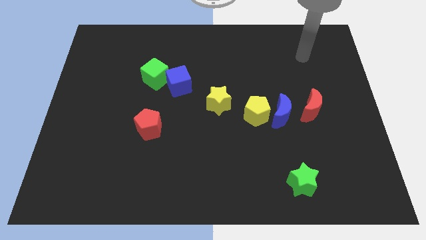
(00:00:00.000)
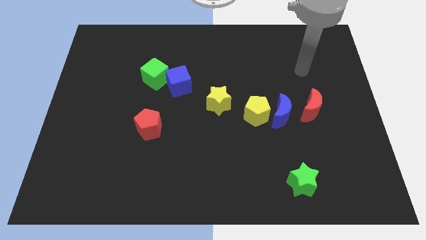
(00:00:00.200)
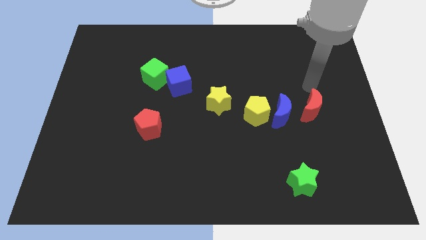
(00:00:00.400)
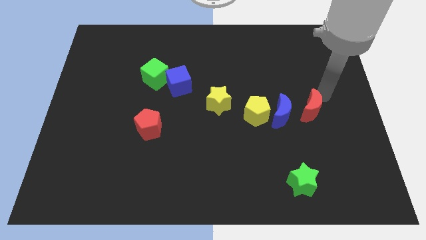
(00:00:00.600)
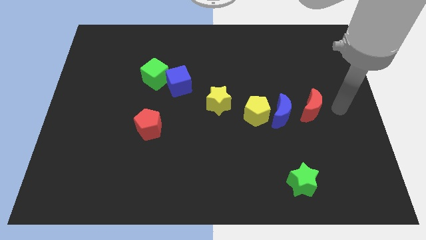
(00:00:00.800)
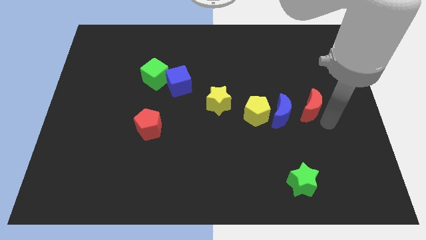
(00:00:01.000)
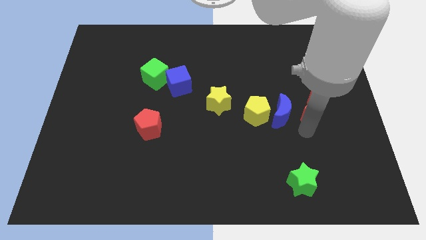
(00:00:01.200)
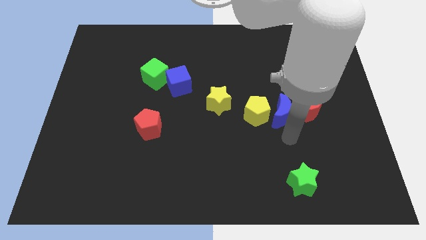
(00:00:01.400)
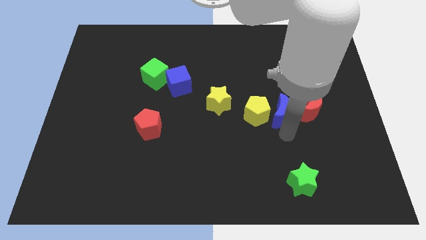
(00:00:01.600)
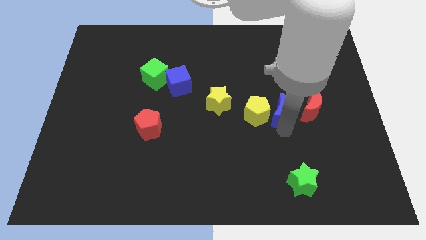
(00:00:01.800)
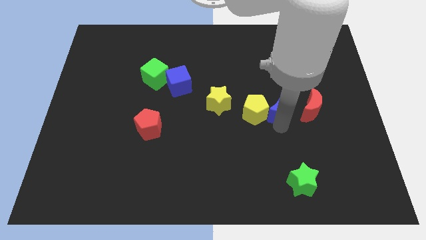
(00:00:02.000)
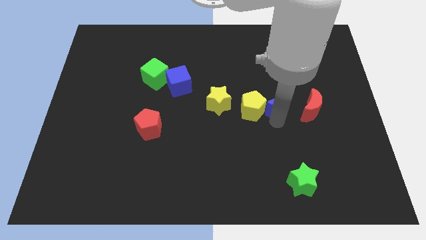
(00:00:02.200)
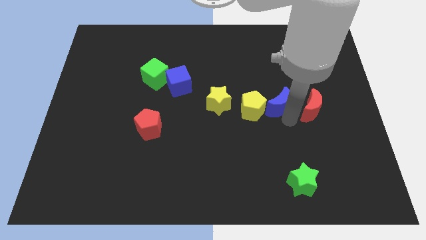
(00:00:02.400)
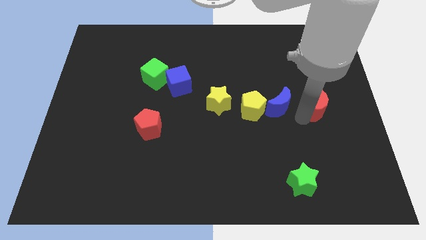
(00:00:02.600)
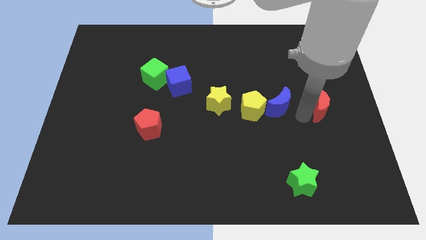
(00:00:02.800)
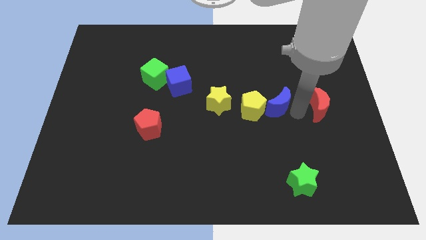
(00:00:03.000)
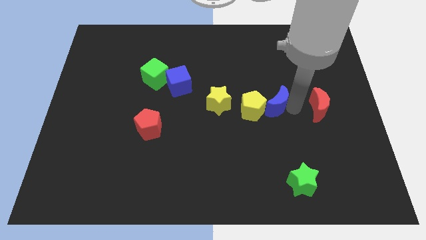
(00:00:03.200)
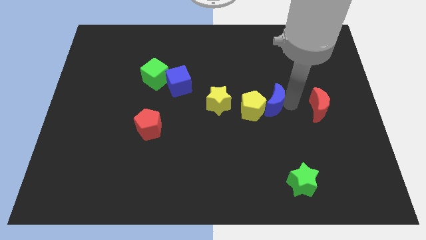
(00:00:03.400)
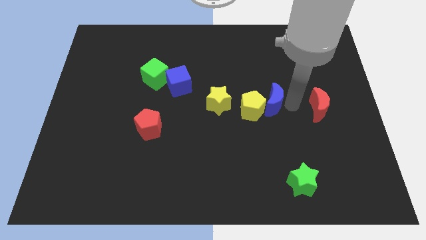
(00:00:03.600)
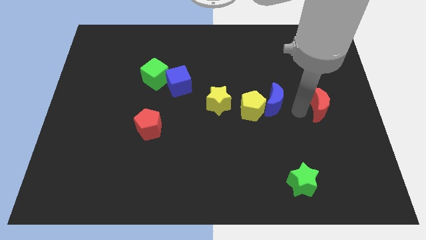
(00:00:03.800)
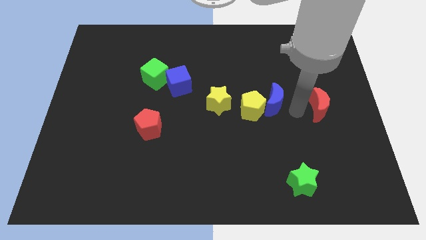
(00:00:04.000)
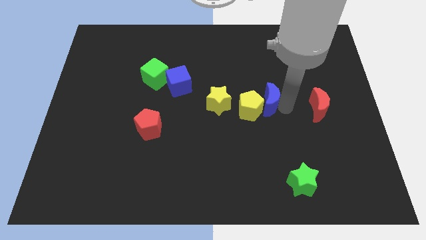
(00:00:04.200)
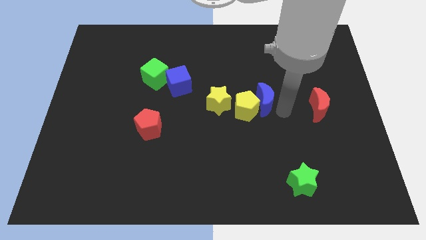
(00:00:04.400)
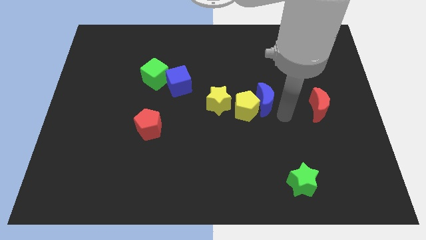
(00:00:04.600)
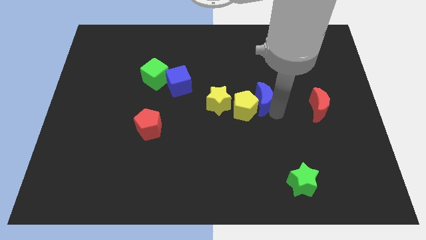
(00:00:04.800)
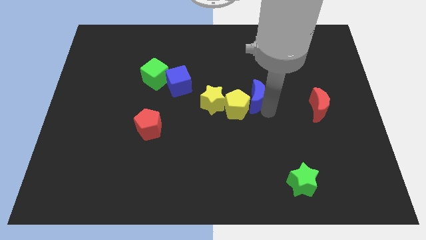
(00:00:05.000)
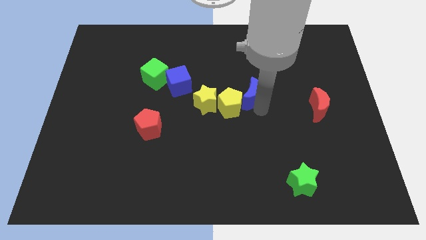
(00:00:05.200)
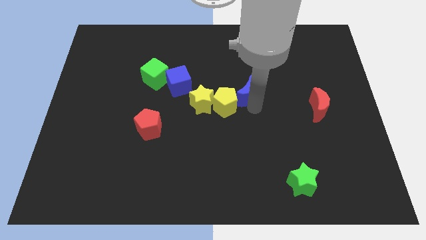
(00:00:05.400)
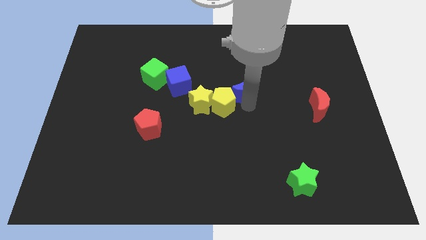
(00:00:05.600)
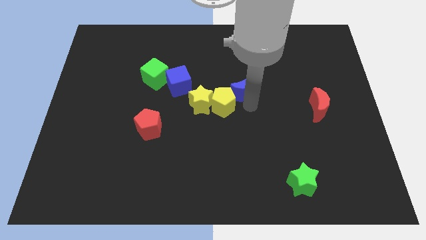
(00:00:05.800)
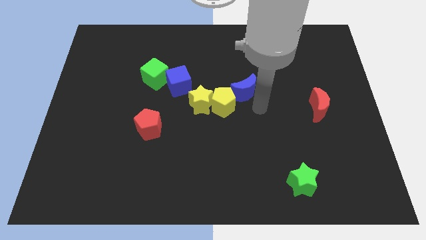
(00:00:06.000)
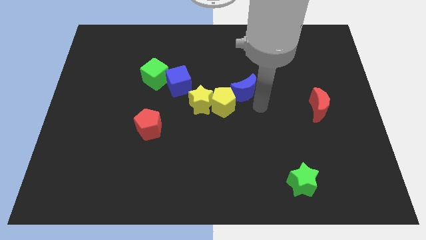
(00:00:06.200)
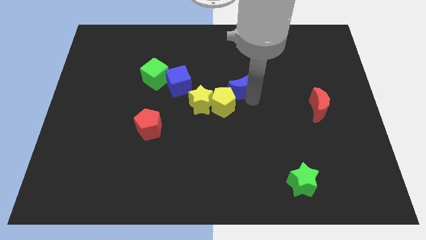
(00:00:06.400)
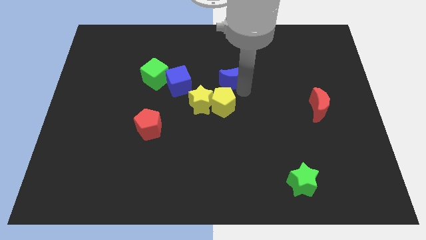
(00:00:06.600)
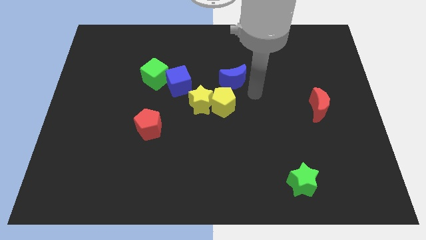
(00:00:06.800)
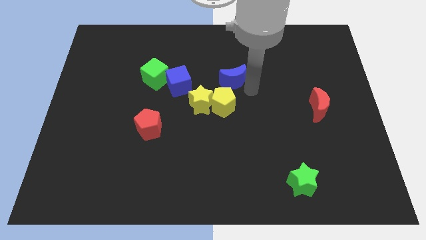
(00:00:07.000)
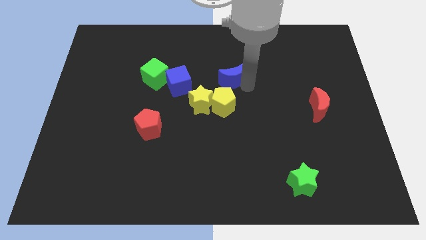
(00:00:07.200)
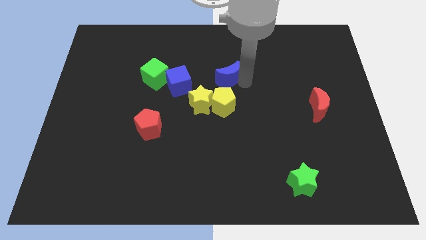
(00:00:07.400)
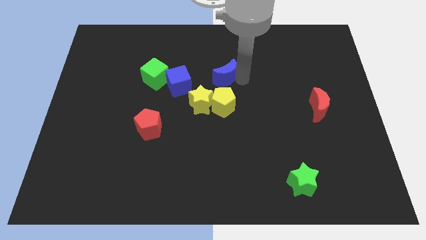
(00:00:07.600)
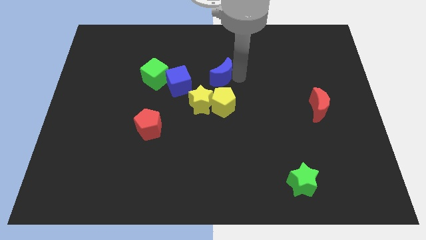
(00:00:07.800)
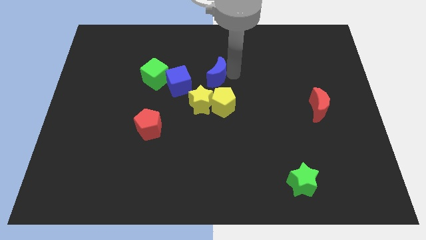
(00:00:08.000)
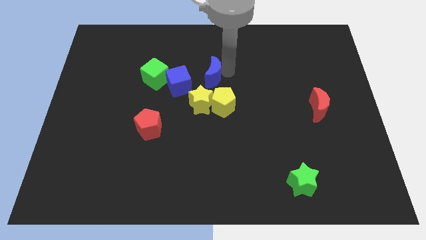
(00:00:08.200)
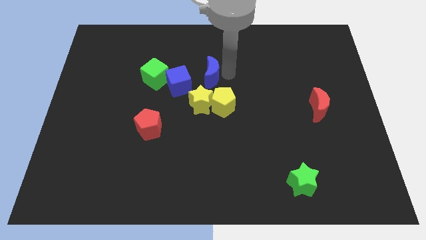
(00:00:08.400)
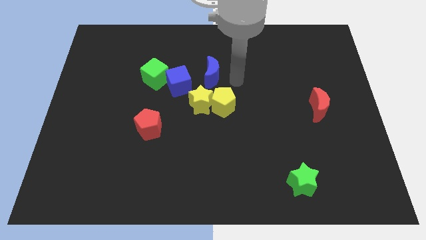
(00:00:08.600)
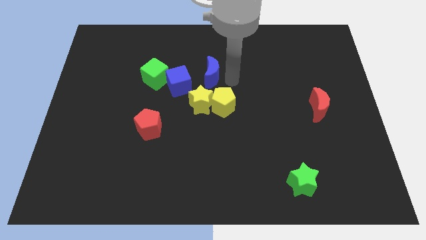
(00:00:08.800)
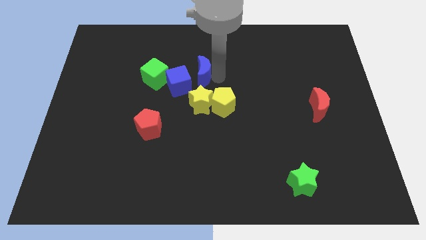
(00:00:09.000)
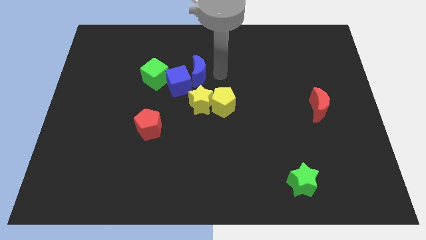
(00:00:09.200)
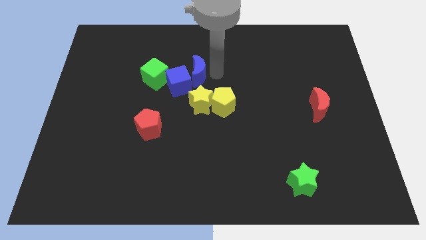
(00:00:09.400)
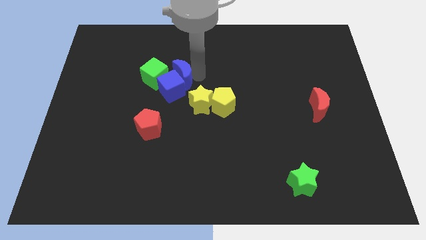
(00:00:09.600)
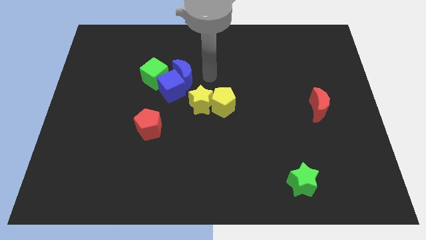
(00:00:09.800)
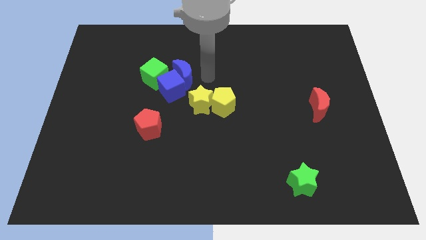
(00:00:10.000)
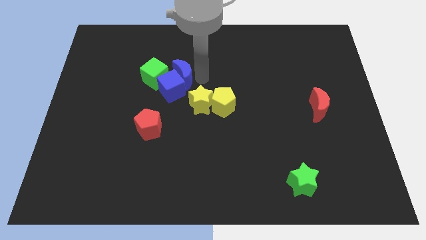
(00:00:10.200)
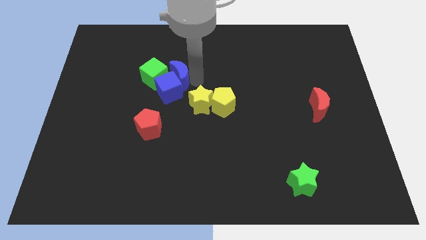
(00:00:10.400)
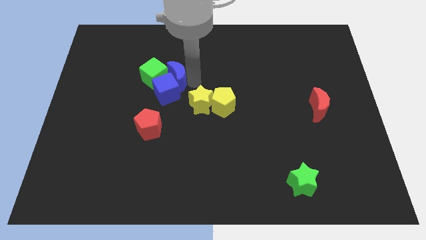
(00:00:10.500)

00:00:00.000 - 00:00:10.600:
slide the blue moon close to the green cube

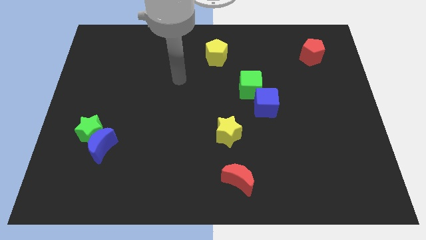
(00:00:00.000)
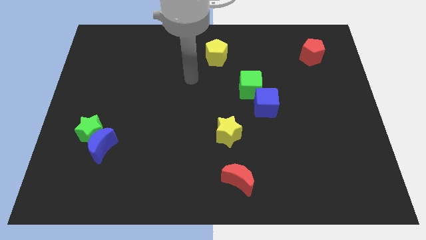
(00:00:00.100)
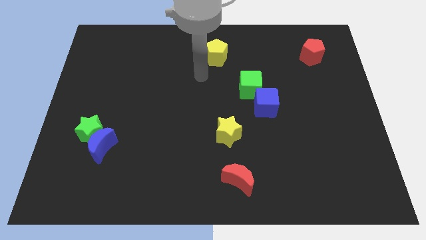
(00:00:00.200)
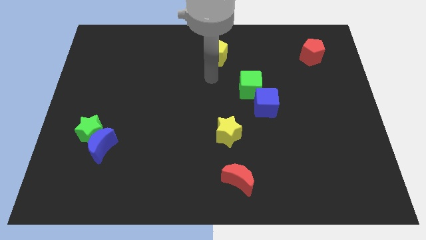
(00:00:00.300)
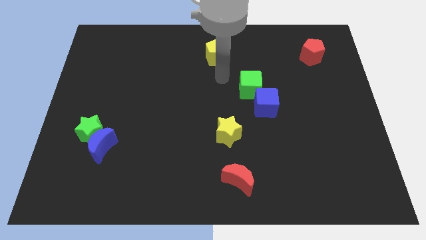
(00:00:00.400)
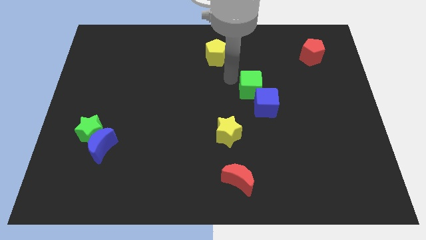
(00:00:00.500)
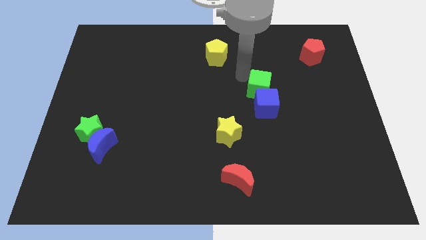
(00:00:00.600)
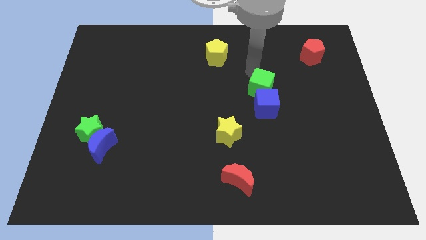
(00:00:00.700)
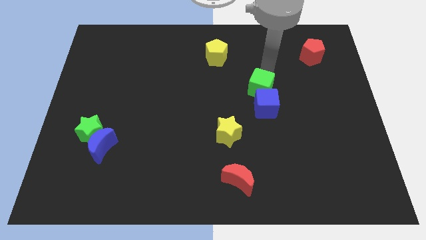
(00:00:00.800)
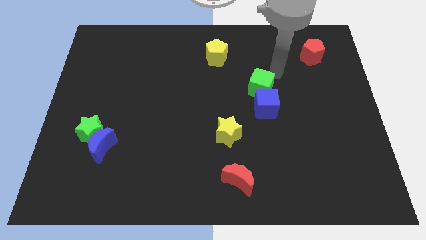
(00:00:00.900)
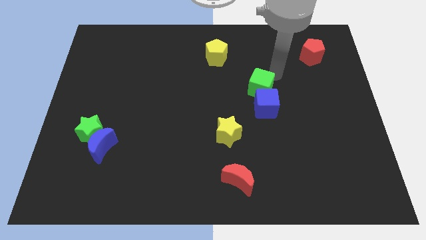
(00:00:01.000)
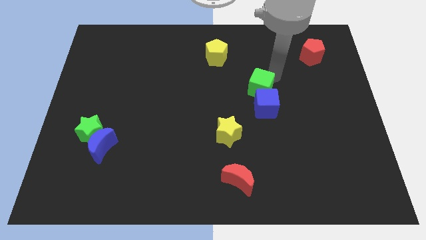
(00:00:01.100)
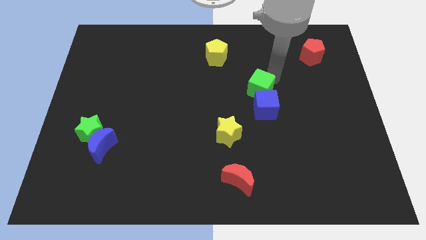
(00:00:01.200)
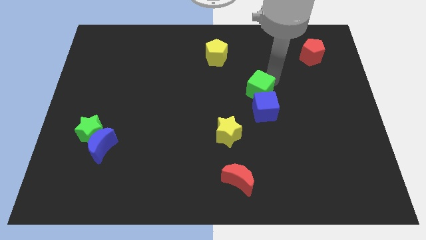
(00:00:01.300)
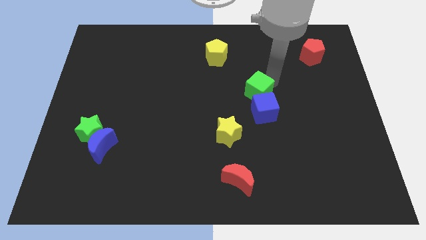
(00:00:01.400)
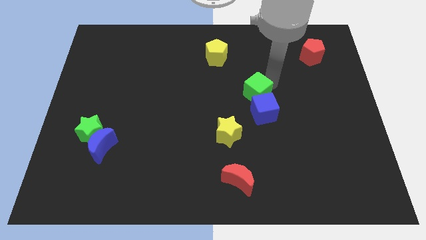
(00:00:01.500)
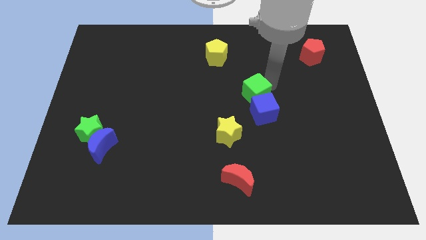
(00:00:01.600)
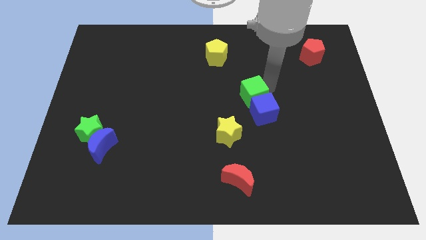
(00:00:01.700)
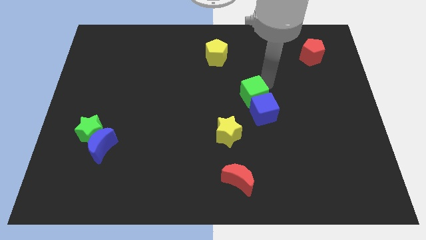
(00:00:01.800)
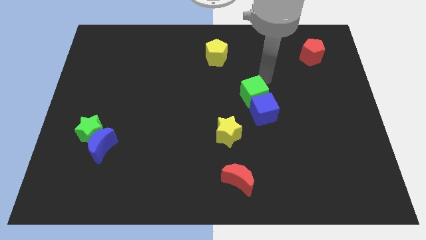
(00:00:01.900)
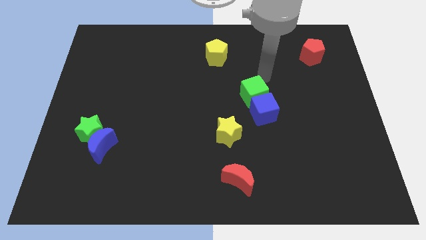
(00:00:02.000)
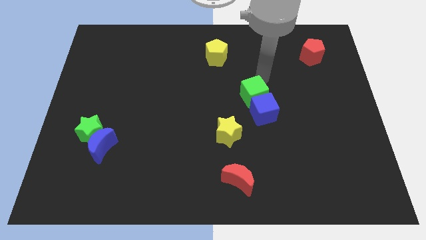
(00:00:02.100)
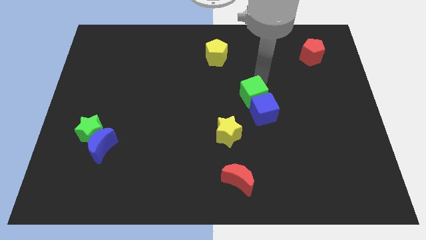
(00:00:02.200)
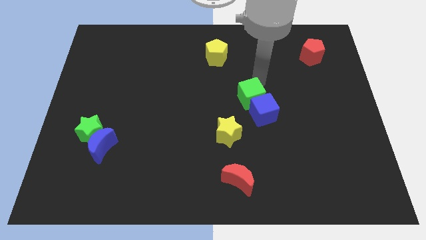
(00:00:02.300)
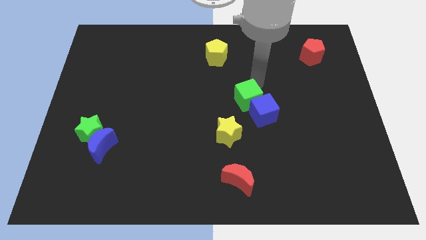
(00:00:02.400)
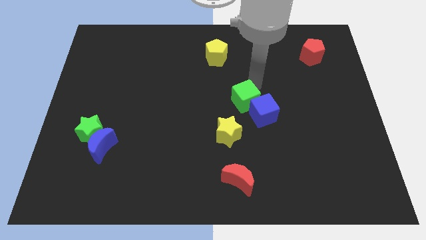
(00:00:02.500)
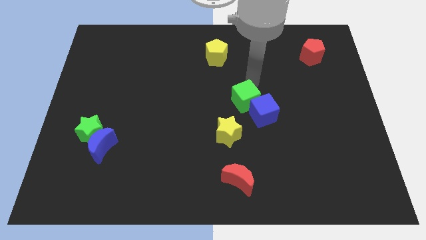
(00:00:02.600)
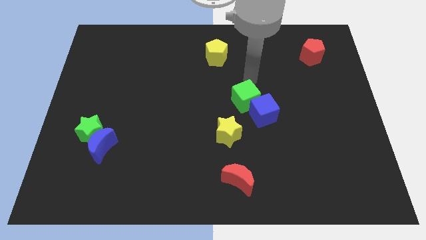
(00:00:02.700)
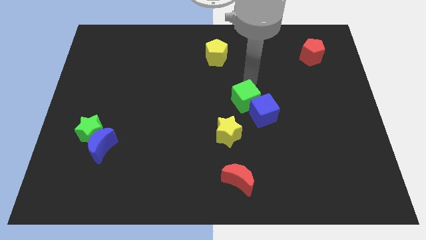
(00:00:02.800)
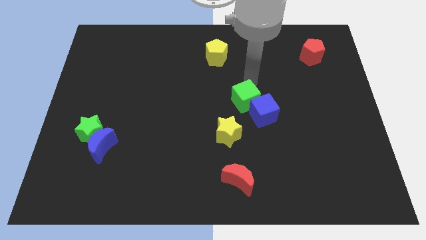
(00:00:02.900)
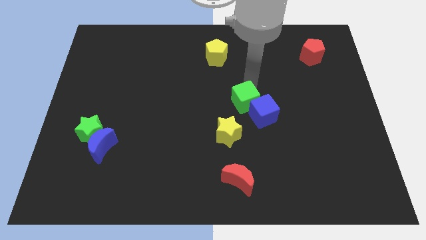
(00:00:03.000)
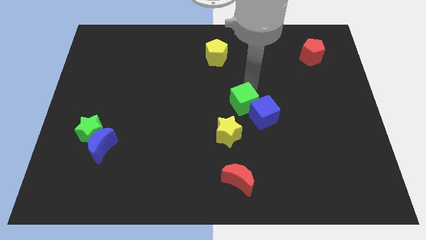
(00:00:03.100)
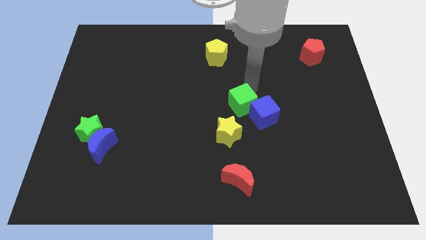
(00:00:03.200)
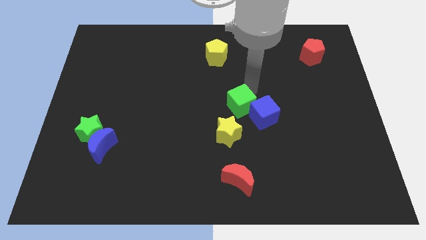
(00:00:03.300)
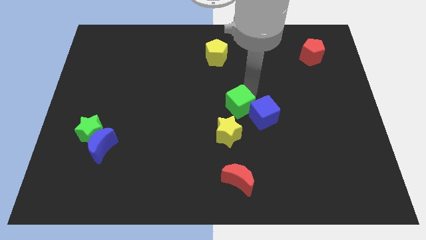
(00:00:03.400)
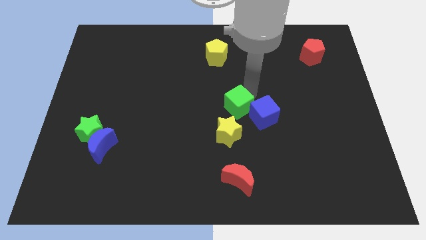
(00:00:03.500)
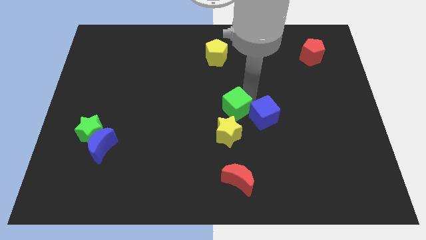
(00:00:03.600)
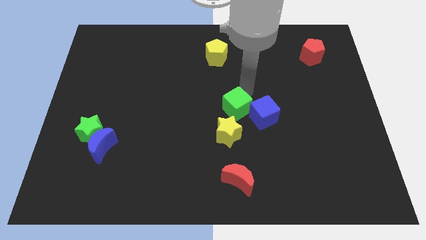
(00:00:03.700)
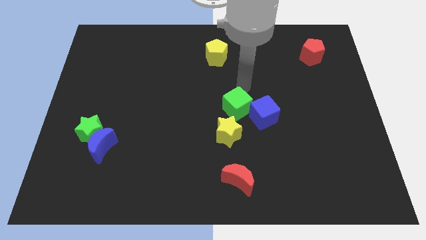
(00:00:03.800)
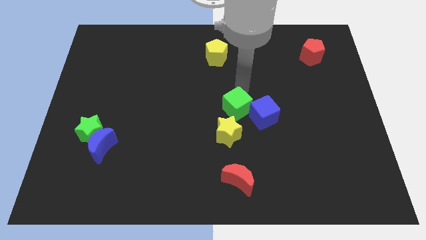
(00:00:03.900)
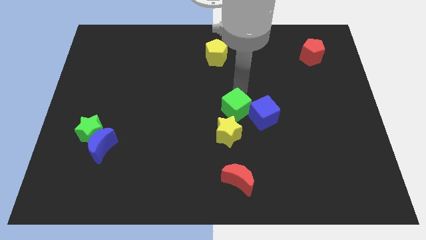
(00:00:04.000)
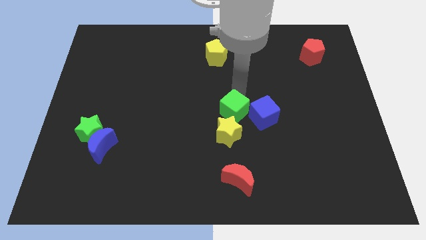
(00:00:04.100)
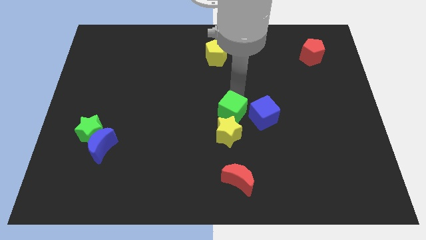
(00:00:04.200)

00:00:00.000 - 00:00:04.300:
push the green cube next to the yellow star
